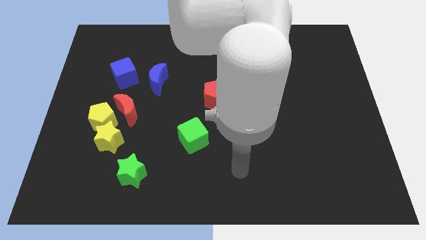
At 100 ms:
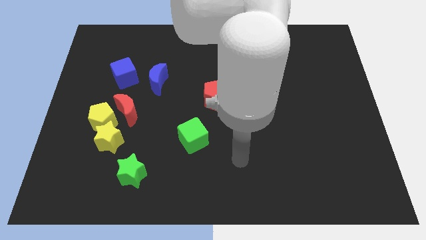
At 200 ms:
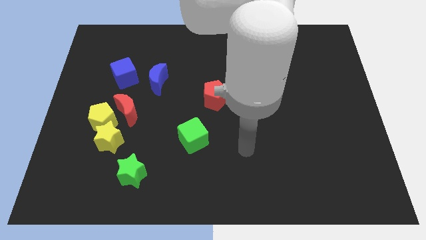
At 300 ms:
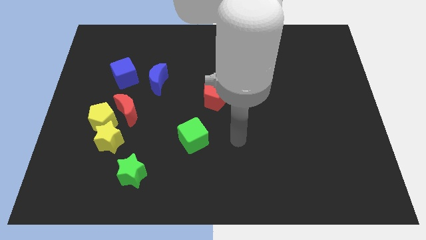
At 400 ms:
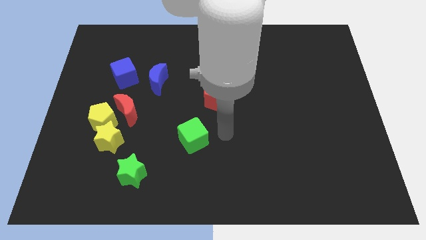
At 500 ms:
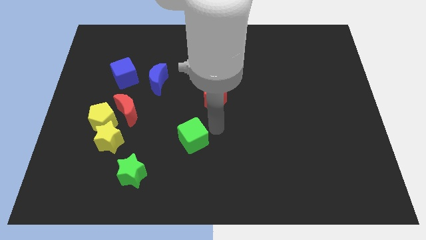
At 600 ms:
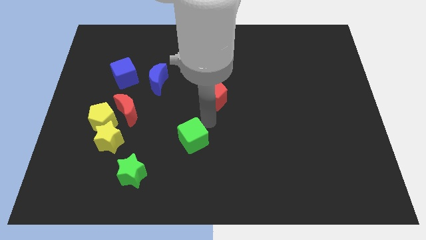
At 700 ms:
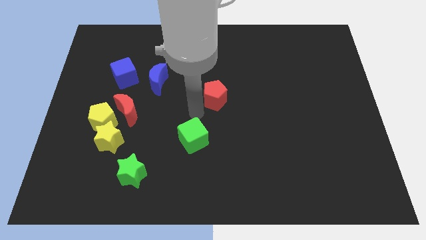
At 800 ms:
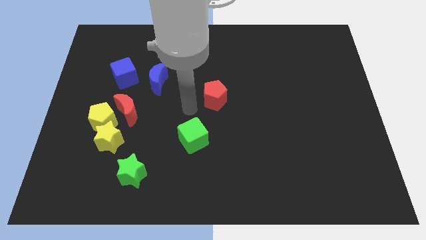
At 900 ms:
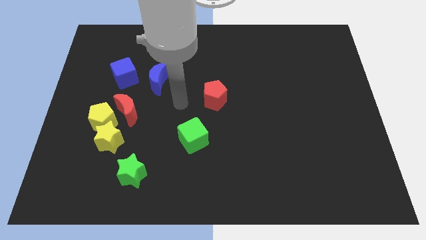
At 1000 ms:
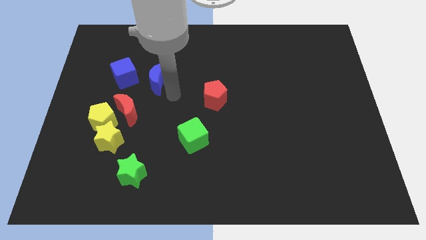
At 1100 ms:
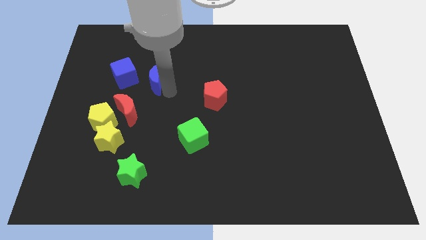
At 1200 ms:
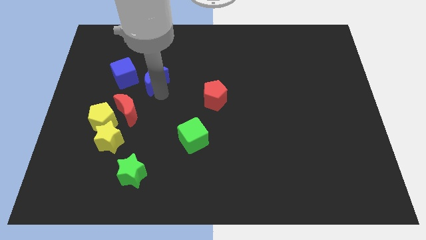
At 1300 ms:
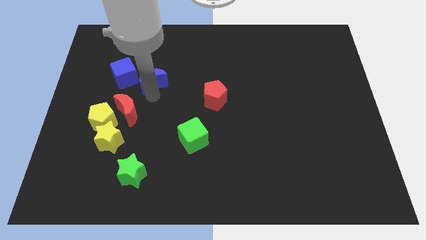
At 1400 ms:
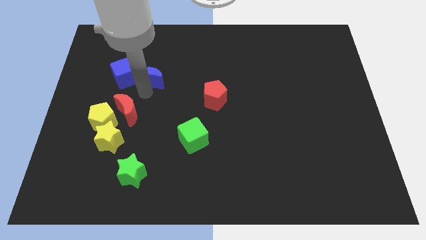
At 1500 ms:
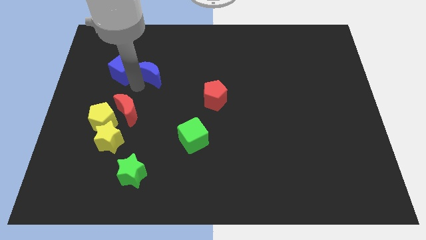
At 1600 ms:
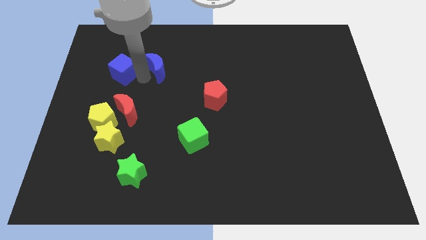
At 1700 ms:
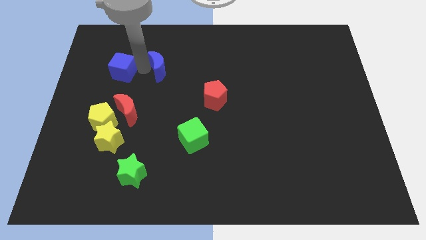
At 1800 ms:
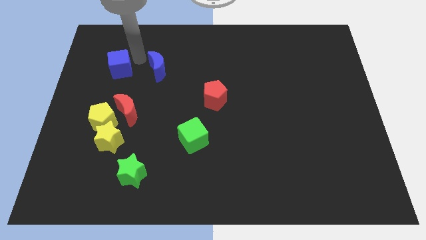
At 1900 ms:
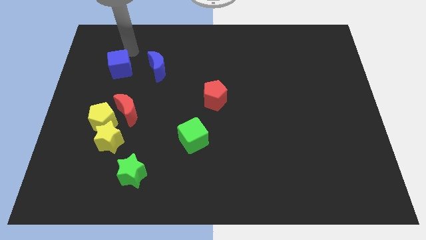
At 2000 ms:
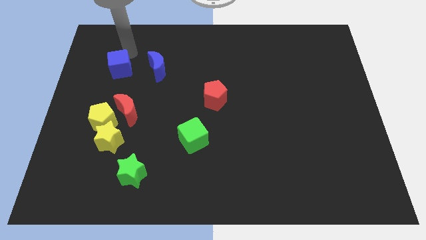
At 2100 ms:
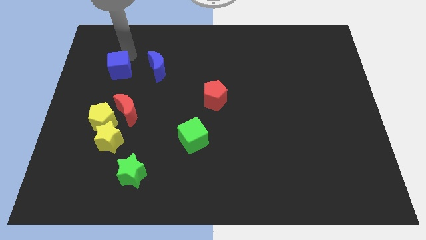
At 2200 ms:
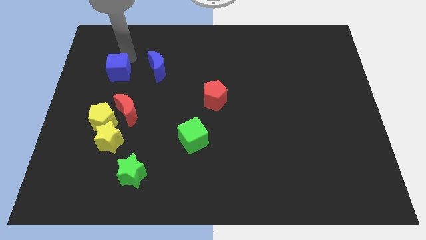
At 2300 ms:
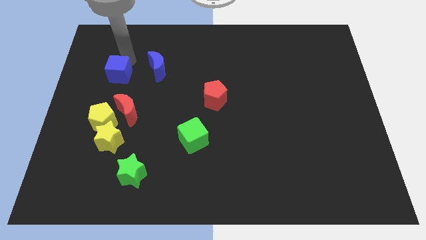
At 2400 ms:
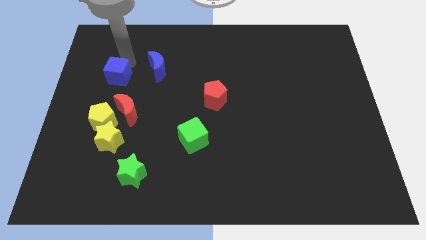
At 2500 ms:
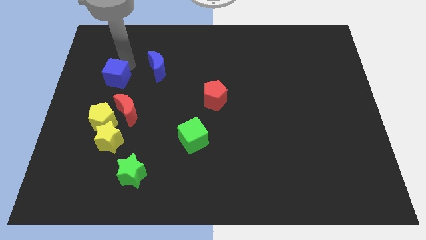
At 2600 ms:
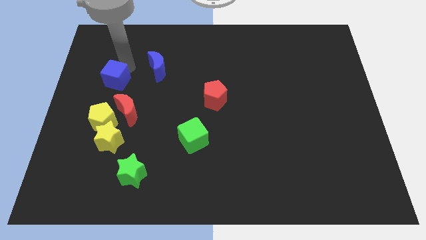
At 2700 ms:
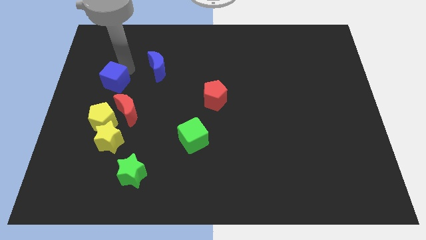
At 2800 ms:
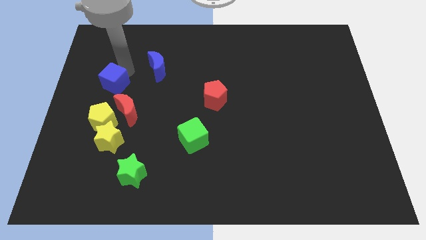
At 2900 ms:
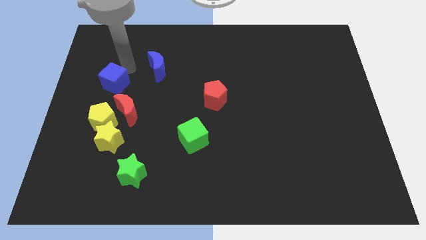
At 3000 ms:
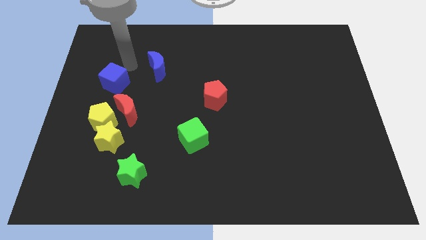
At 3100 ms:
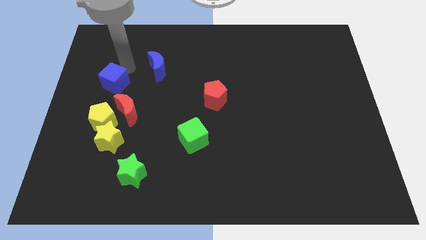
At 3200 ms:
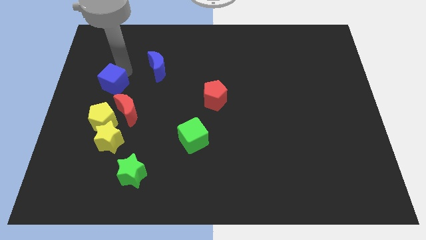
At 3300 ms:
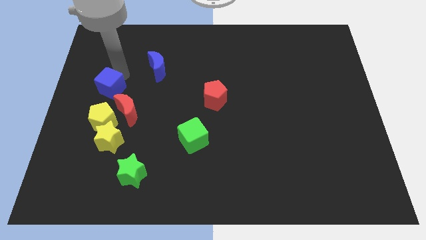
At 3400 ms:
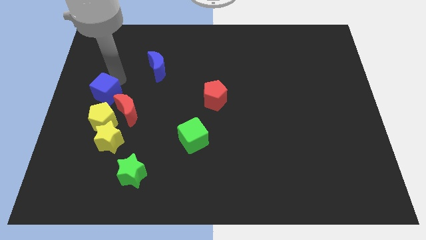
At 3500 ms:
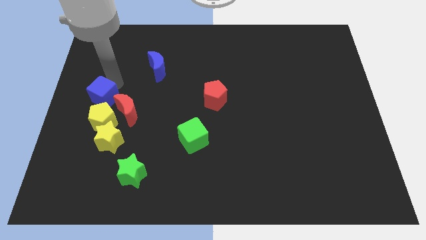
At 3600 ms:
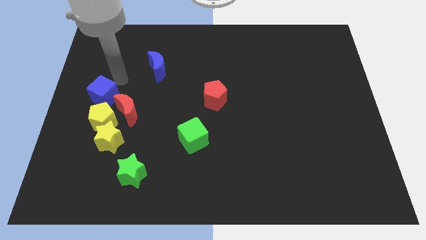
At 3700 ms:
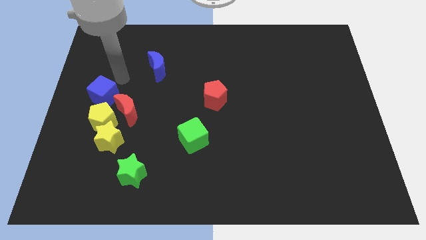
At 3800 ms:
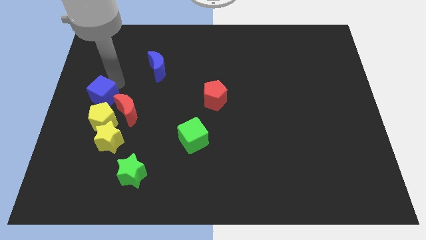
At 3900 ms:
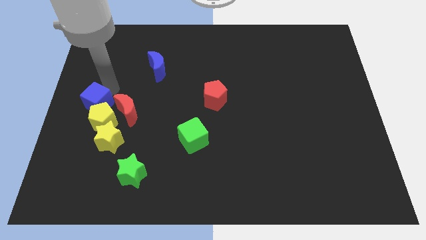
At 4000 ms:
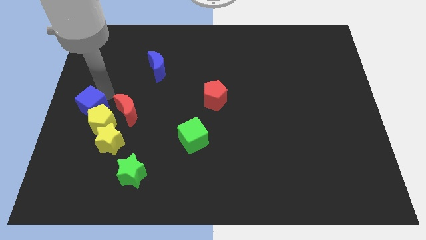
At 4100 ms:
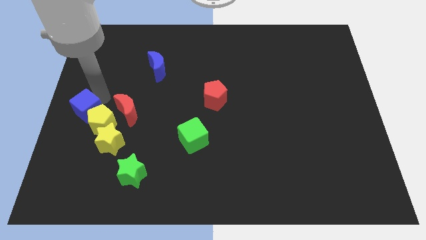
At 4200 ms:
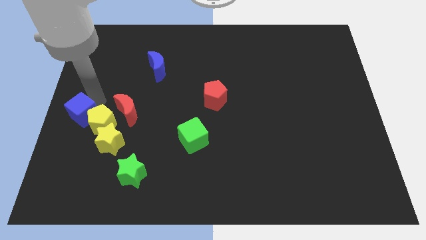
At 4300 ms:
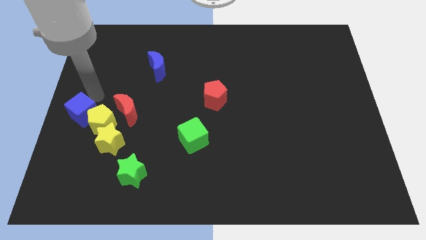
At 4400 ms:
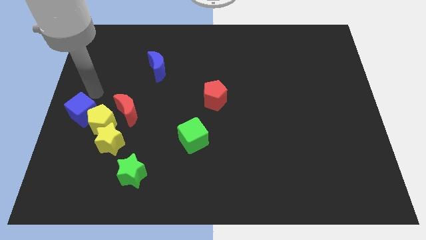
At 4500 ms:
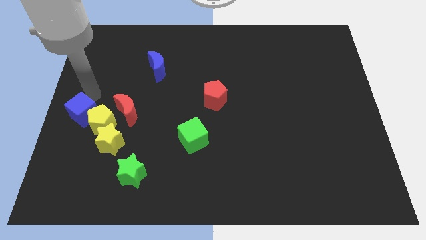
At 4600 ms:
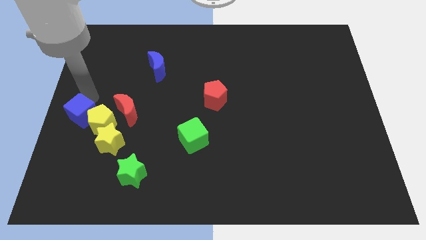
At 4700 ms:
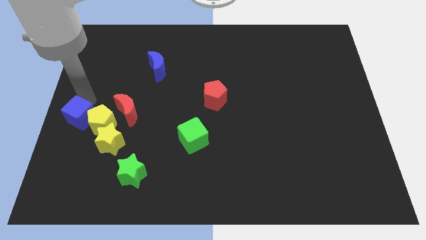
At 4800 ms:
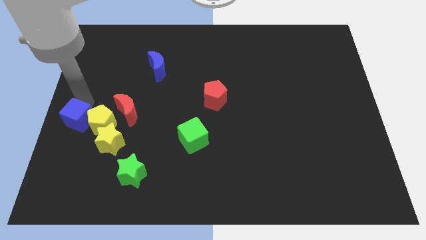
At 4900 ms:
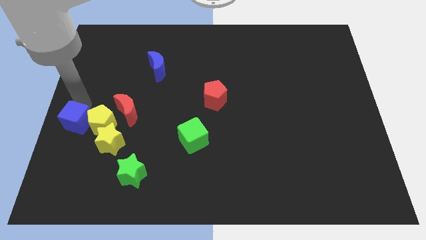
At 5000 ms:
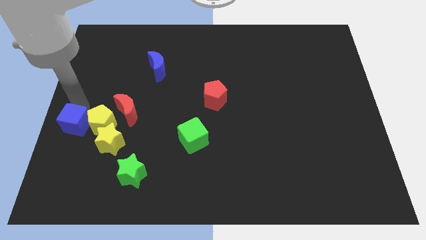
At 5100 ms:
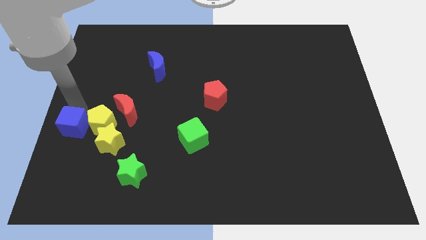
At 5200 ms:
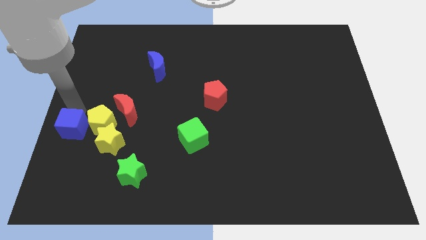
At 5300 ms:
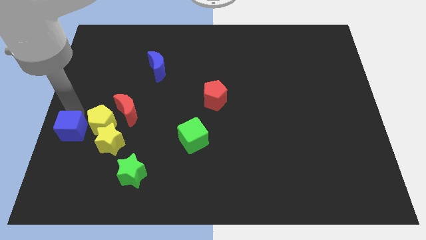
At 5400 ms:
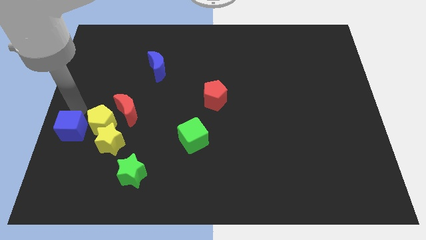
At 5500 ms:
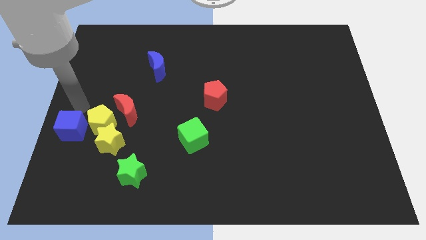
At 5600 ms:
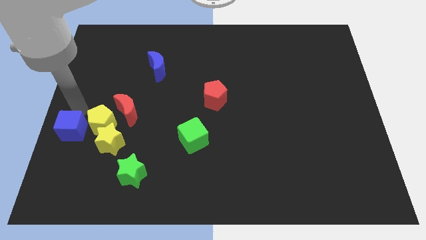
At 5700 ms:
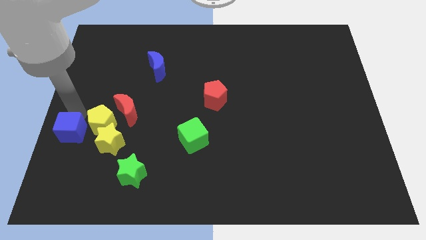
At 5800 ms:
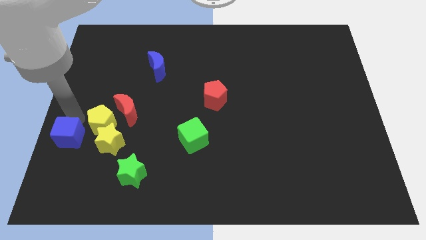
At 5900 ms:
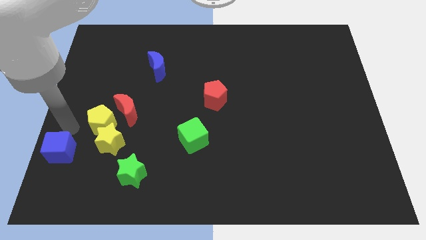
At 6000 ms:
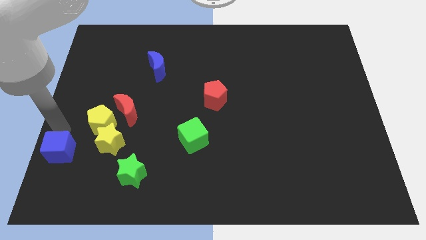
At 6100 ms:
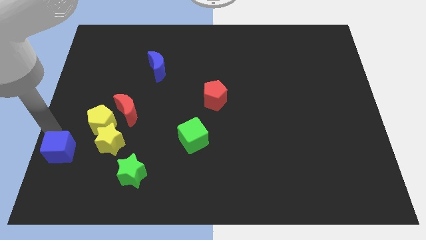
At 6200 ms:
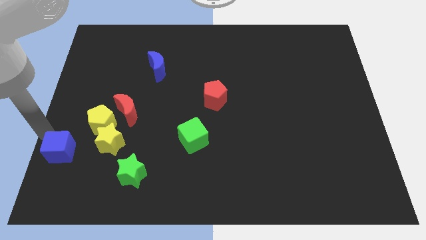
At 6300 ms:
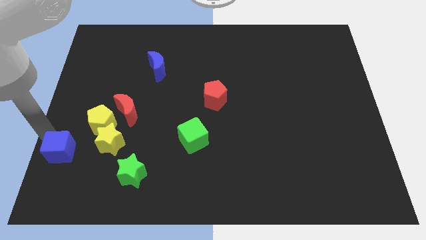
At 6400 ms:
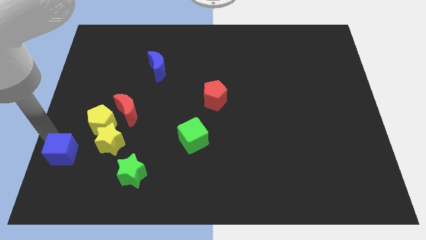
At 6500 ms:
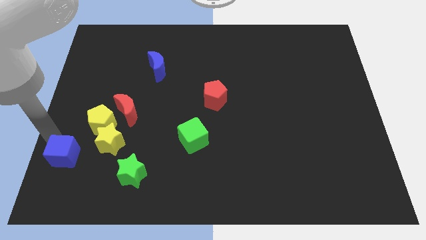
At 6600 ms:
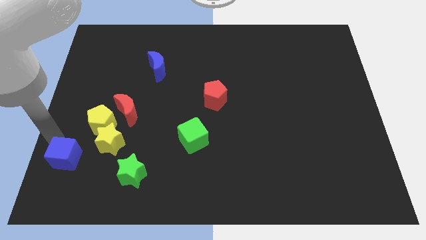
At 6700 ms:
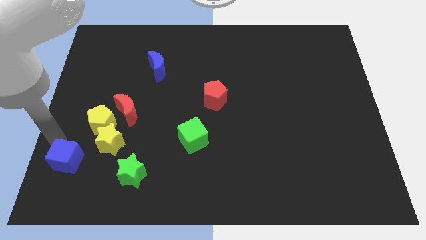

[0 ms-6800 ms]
put the blue cube to the left of the green star

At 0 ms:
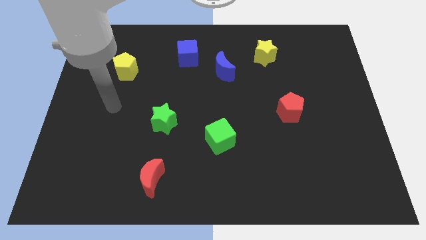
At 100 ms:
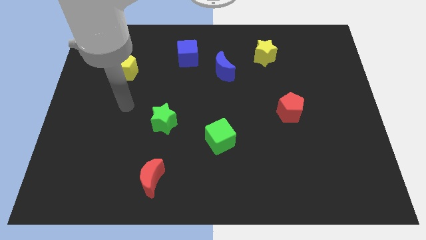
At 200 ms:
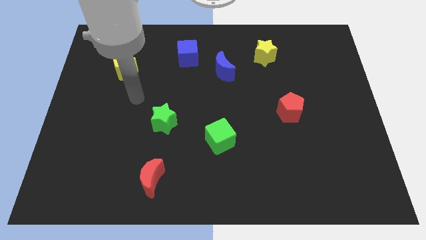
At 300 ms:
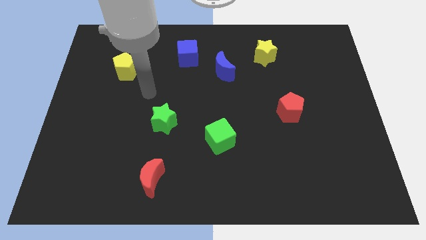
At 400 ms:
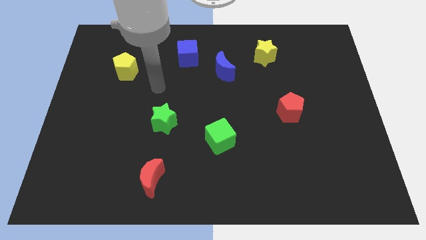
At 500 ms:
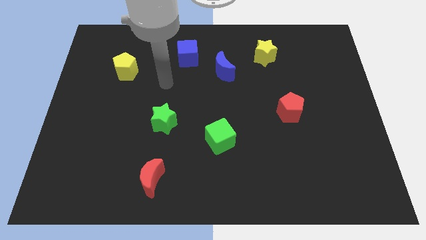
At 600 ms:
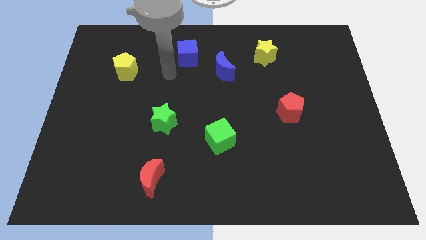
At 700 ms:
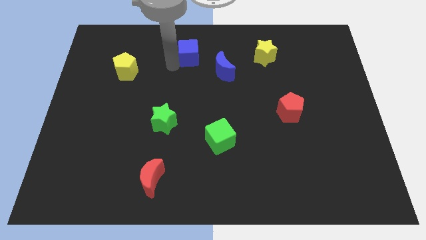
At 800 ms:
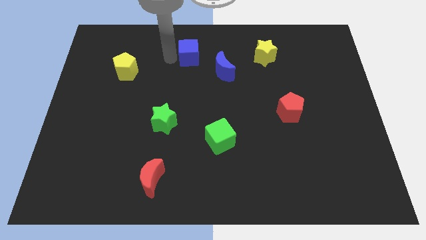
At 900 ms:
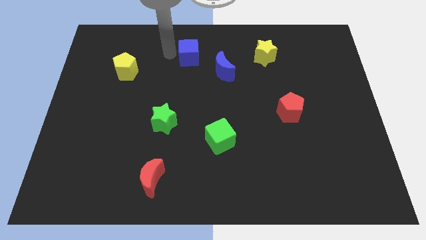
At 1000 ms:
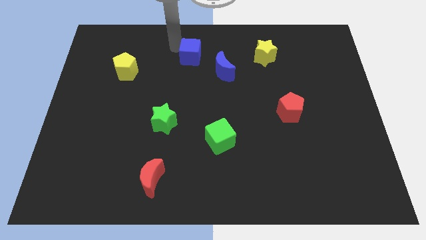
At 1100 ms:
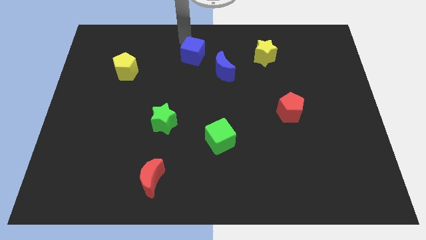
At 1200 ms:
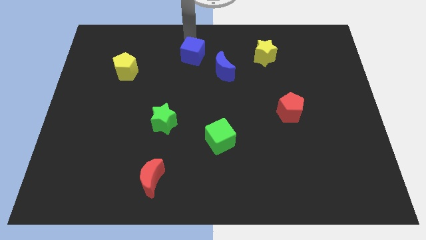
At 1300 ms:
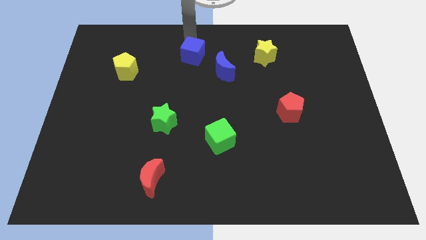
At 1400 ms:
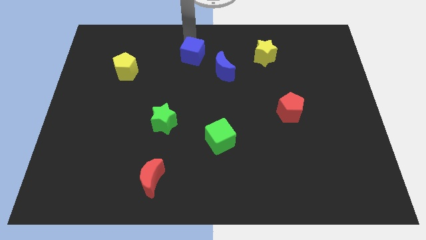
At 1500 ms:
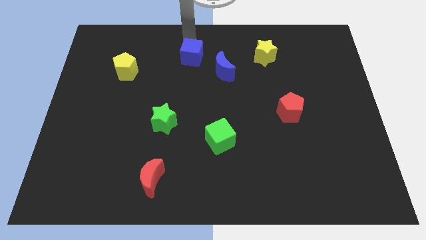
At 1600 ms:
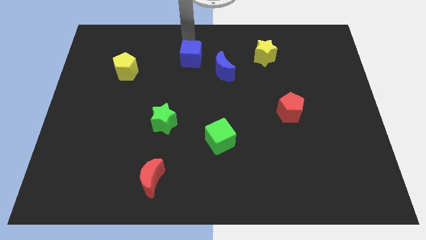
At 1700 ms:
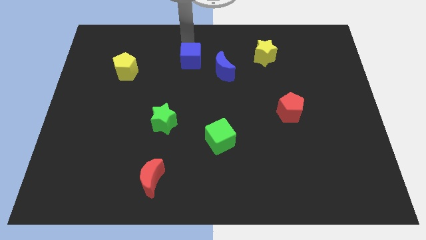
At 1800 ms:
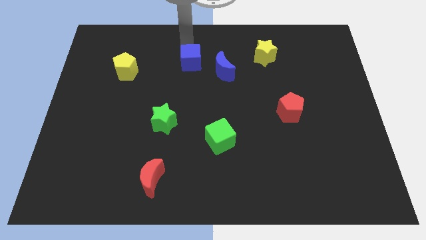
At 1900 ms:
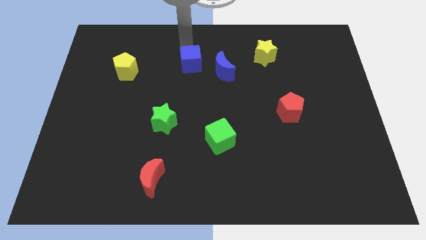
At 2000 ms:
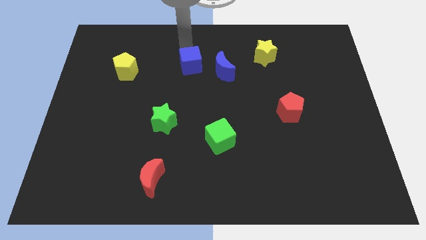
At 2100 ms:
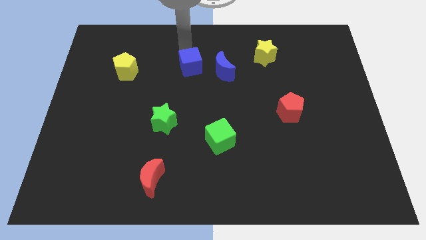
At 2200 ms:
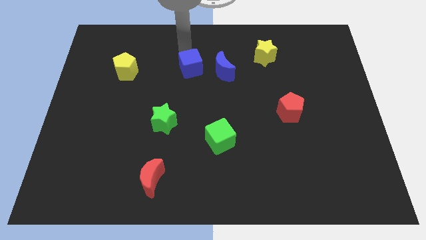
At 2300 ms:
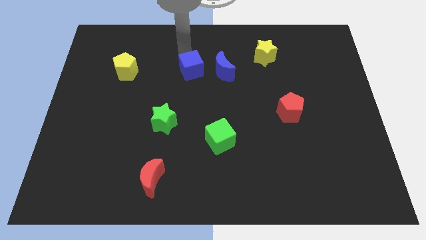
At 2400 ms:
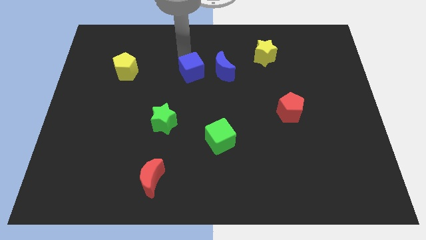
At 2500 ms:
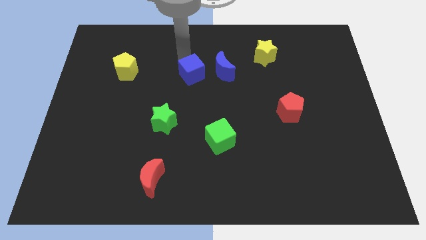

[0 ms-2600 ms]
slide the blue cube diagonally down and to the left of the blue moon
